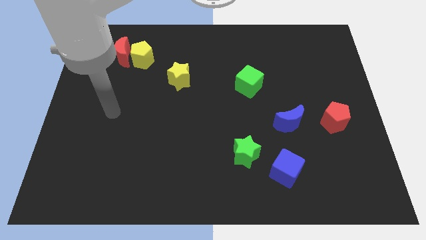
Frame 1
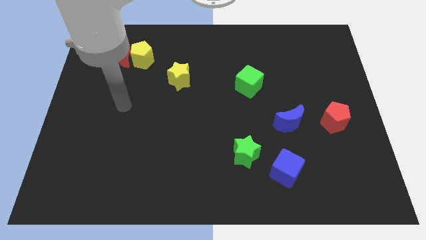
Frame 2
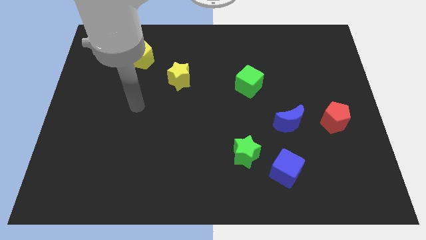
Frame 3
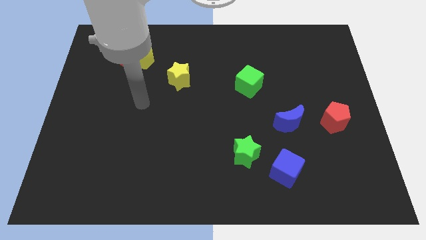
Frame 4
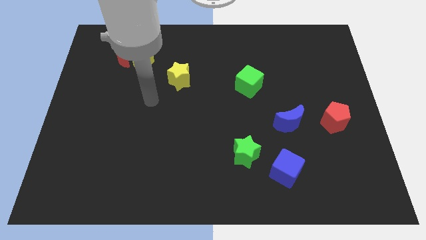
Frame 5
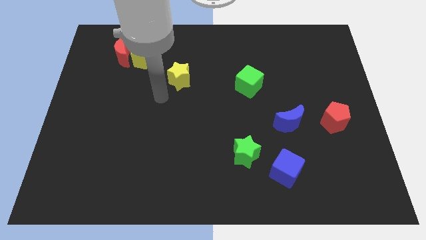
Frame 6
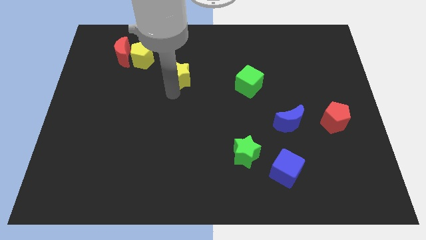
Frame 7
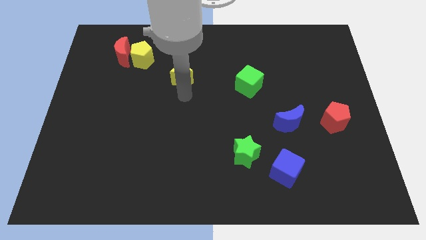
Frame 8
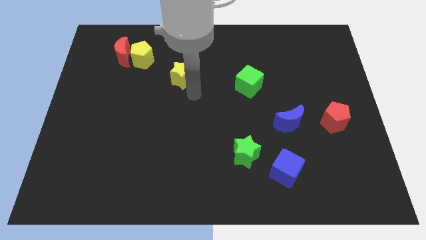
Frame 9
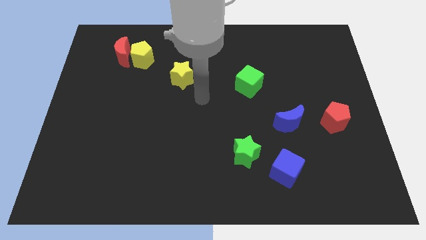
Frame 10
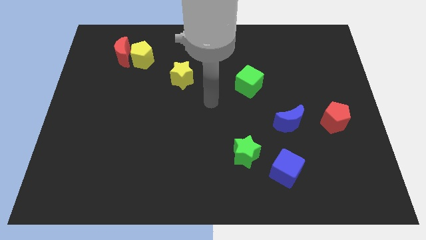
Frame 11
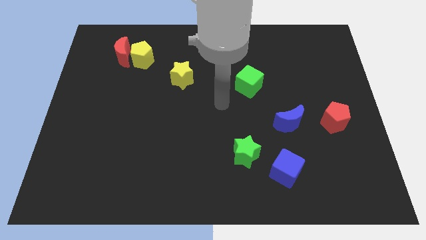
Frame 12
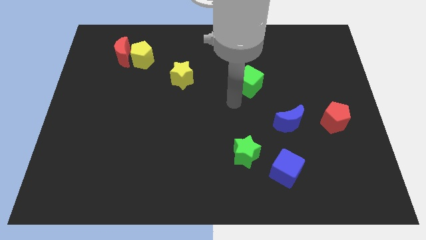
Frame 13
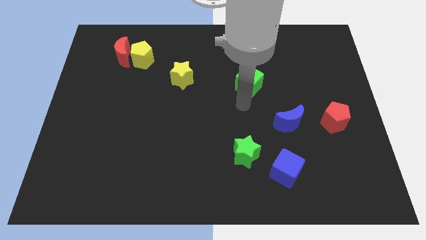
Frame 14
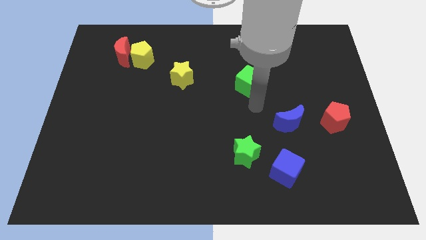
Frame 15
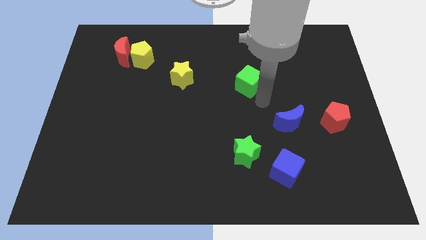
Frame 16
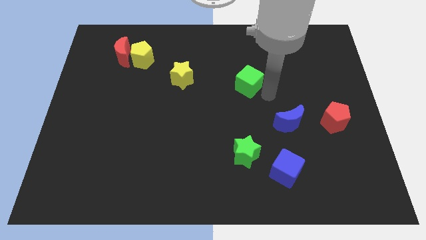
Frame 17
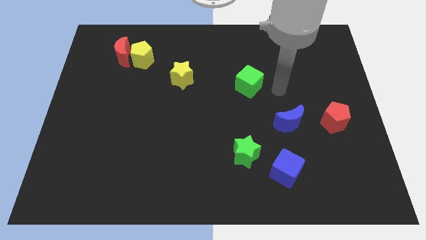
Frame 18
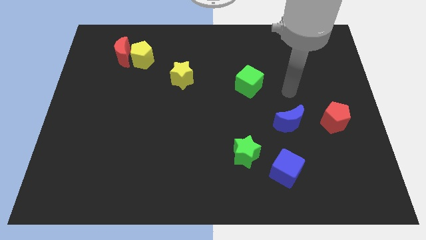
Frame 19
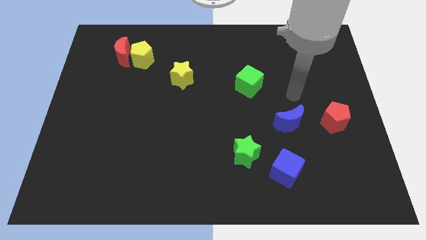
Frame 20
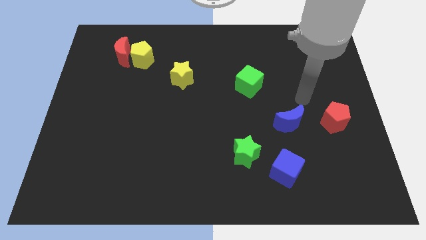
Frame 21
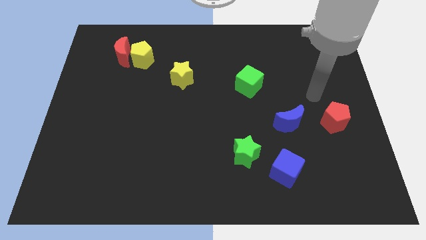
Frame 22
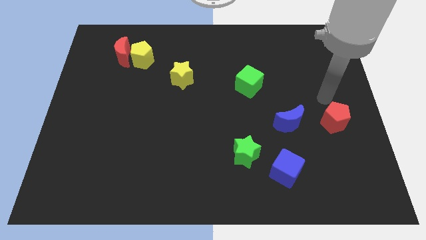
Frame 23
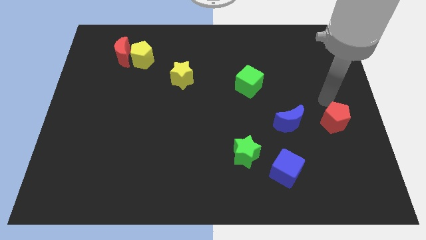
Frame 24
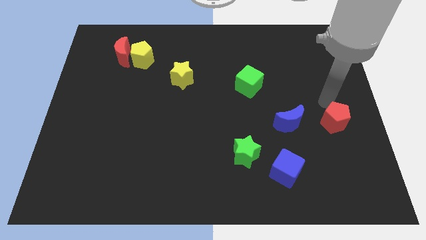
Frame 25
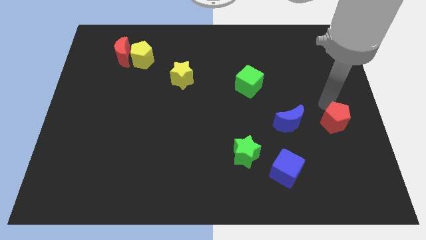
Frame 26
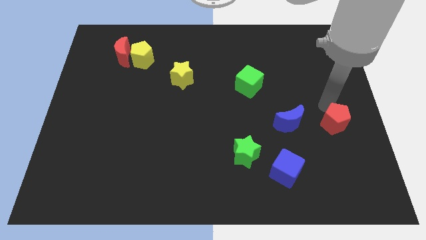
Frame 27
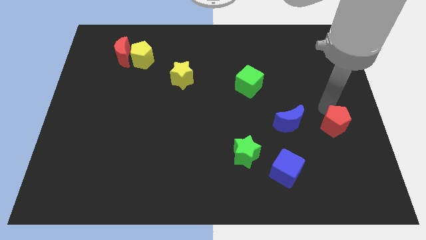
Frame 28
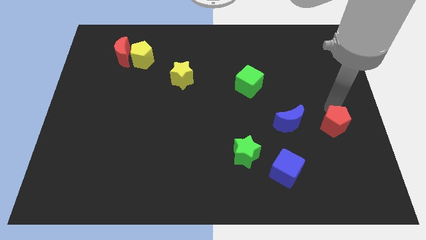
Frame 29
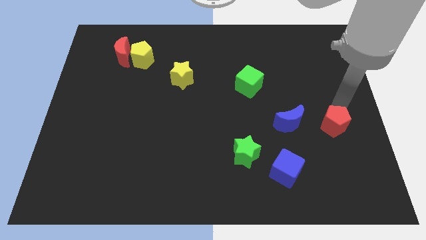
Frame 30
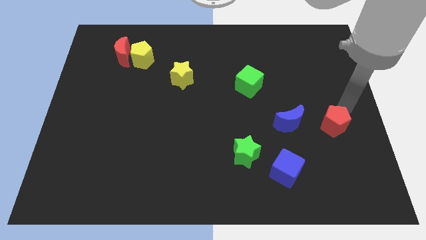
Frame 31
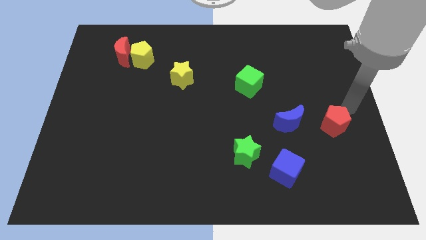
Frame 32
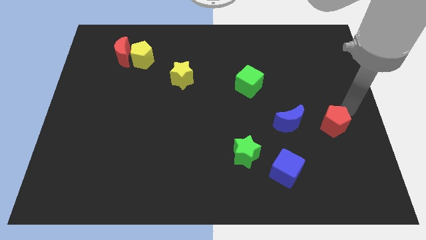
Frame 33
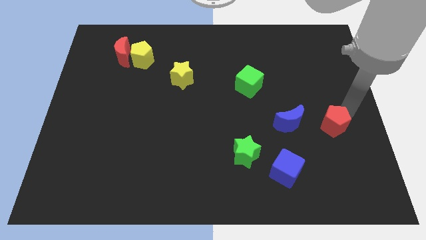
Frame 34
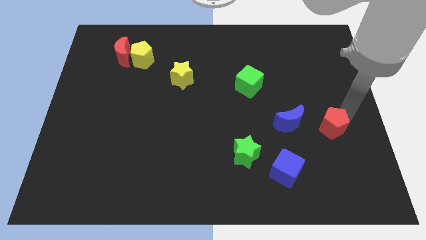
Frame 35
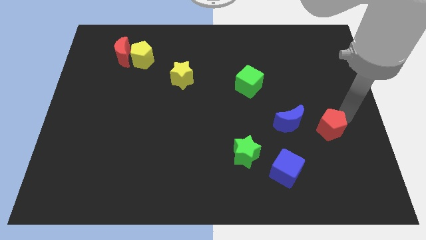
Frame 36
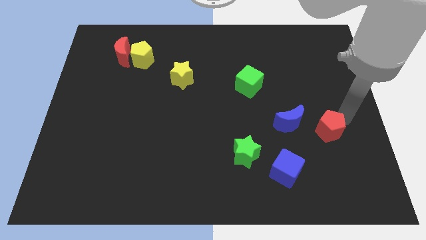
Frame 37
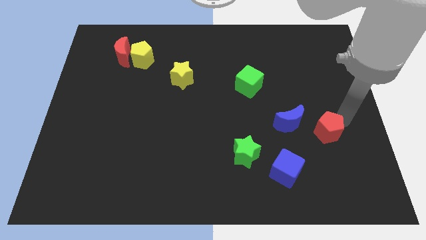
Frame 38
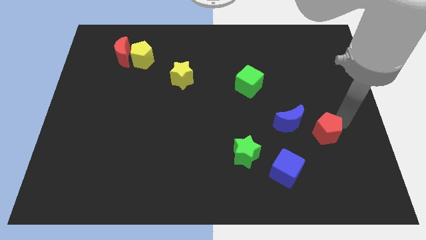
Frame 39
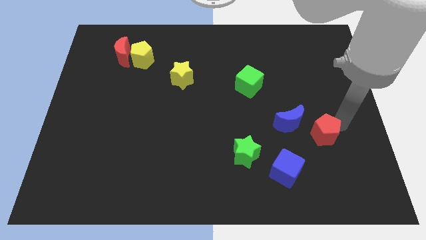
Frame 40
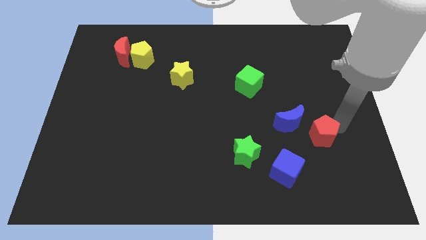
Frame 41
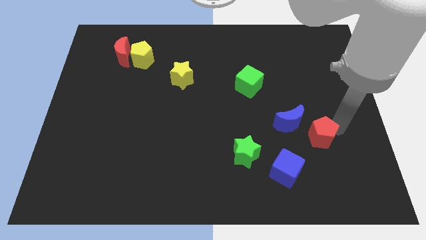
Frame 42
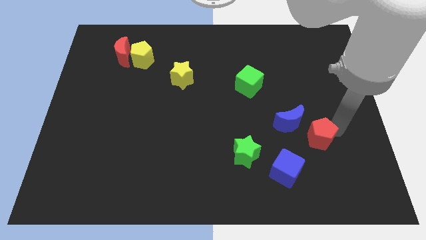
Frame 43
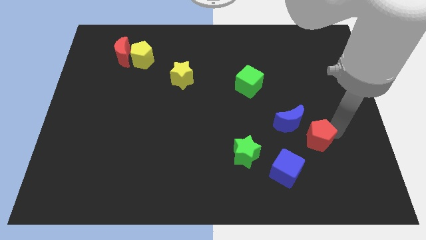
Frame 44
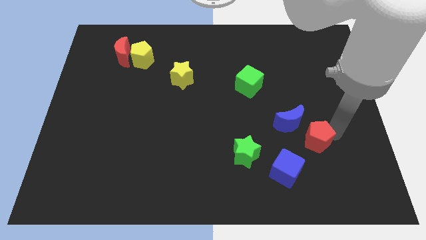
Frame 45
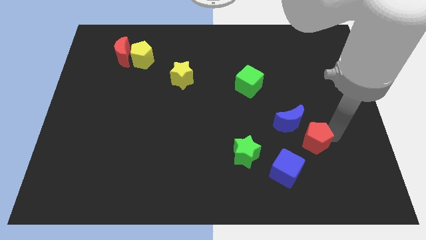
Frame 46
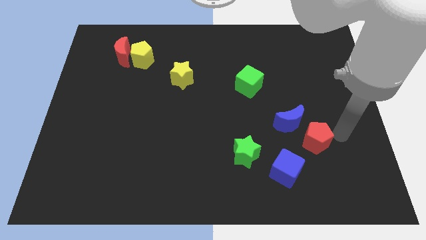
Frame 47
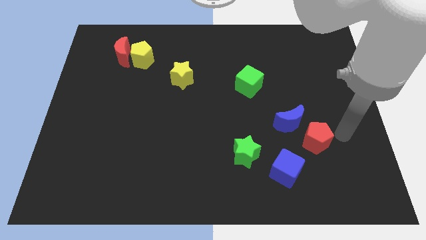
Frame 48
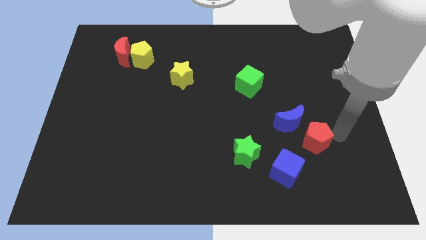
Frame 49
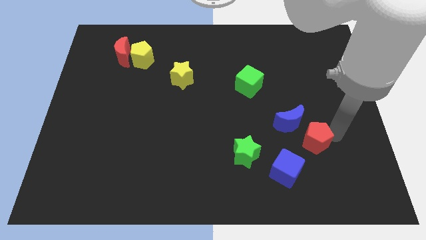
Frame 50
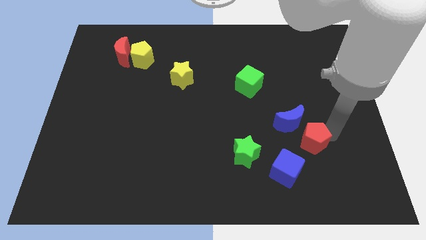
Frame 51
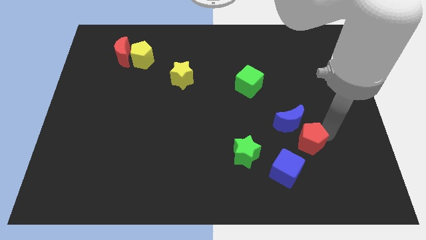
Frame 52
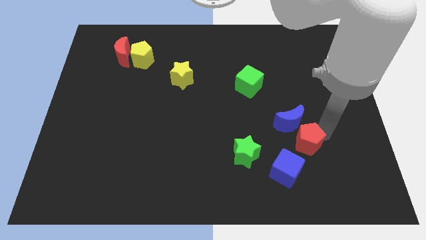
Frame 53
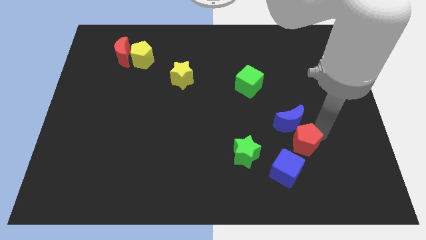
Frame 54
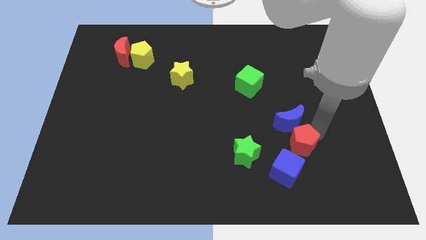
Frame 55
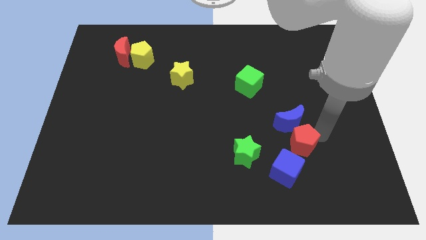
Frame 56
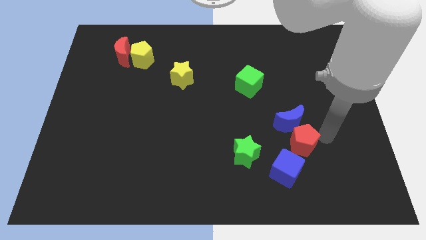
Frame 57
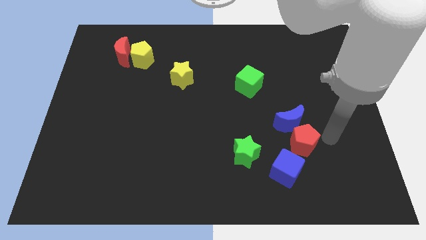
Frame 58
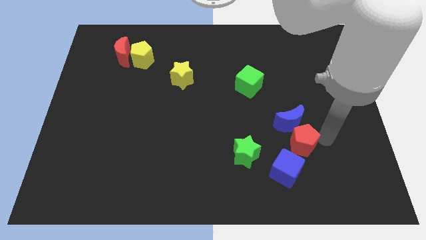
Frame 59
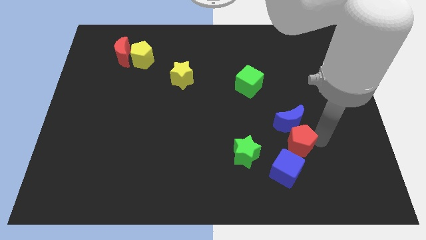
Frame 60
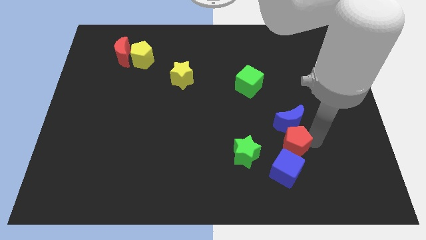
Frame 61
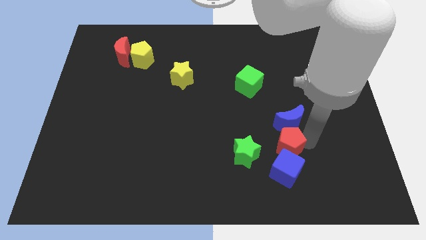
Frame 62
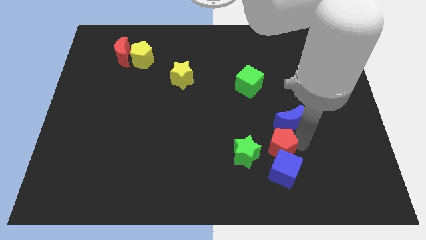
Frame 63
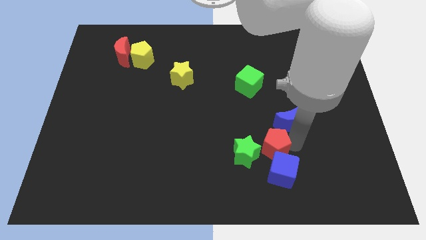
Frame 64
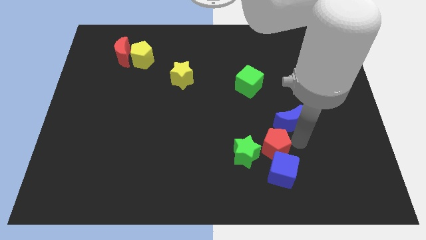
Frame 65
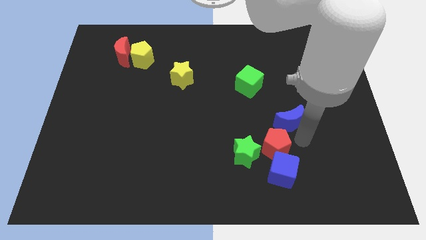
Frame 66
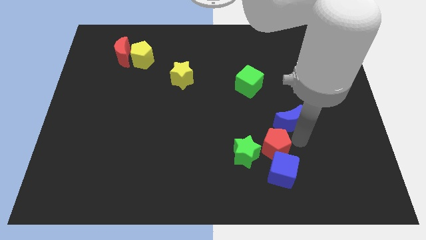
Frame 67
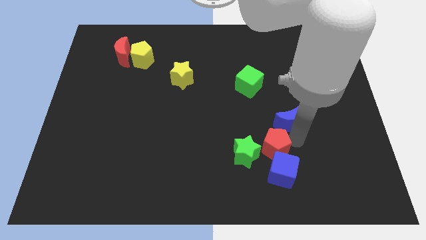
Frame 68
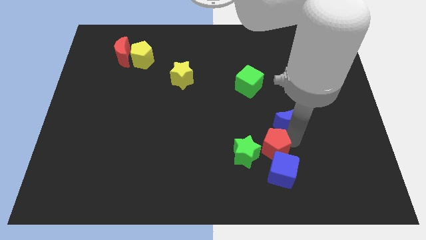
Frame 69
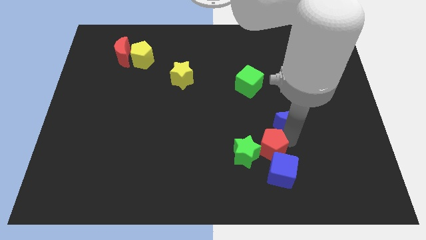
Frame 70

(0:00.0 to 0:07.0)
put the red pentagon towards the green star
